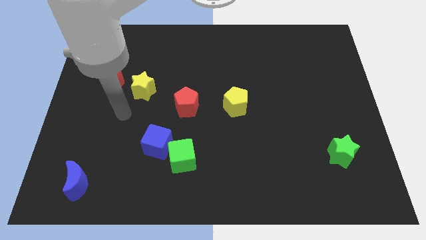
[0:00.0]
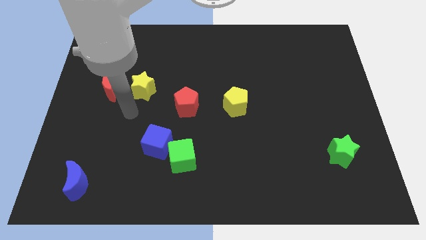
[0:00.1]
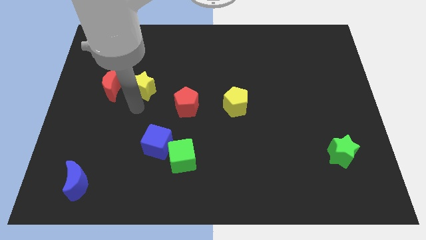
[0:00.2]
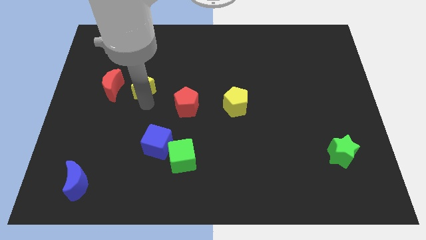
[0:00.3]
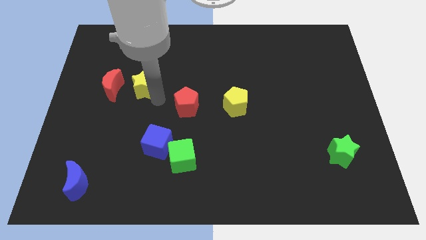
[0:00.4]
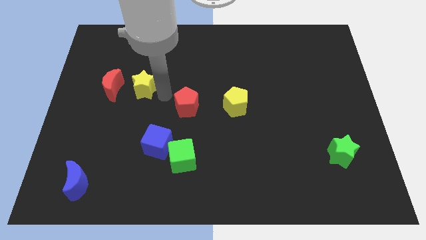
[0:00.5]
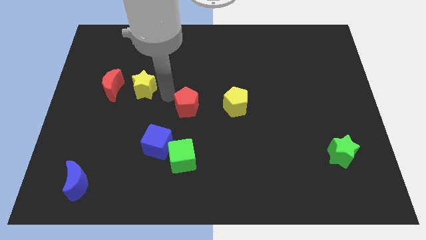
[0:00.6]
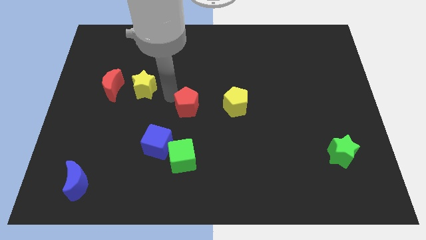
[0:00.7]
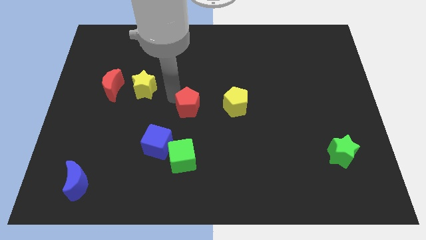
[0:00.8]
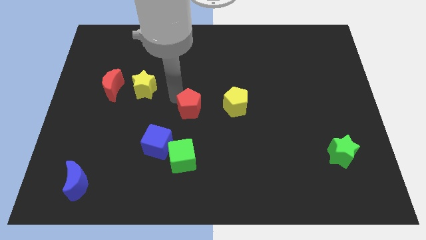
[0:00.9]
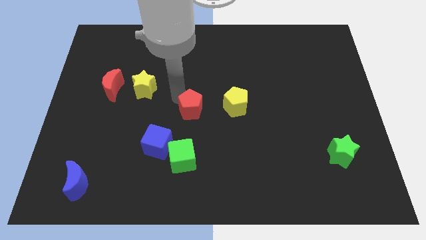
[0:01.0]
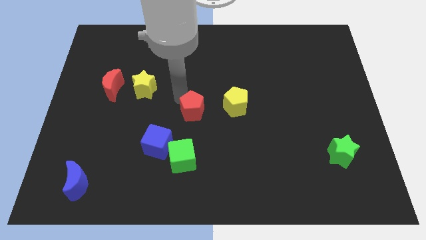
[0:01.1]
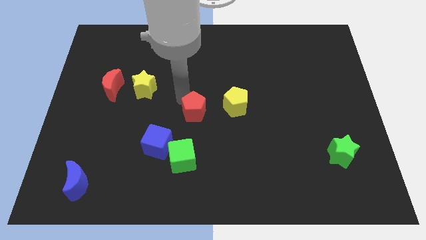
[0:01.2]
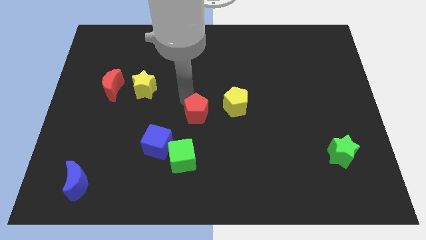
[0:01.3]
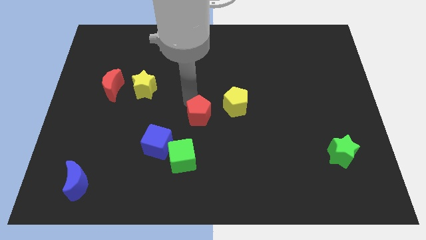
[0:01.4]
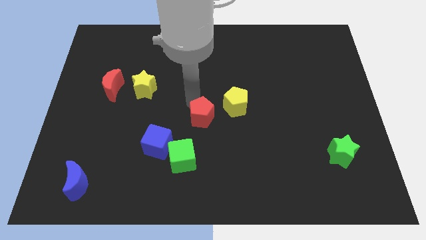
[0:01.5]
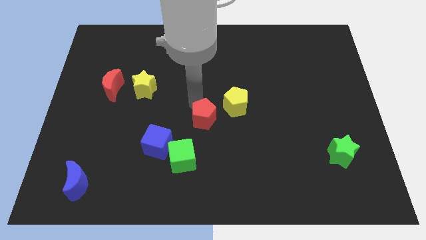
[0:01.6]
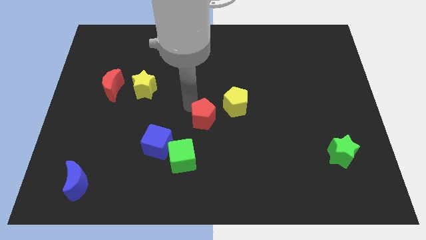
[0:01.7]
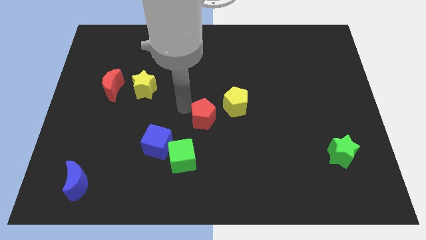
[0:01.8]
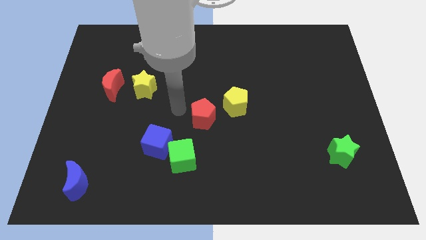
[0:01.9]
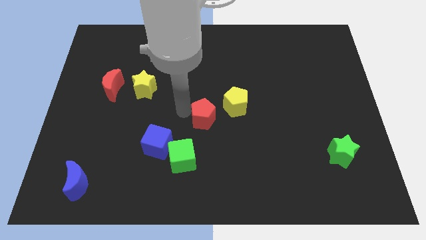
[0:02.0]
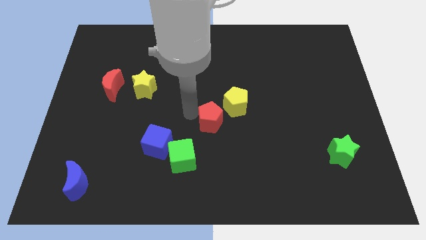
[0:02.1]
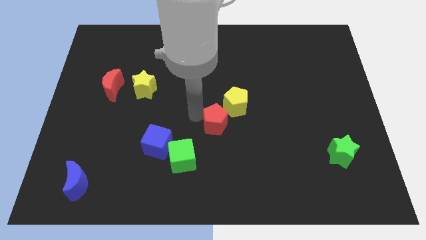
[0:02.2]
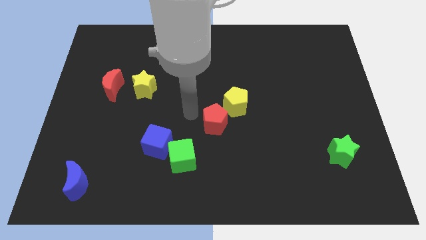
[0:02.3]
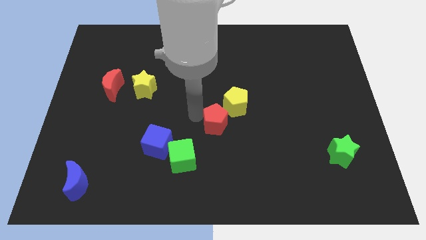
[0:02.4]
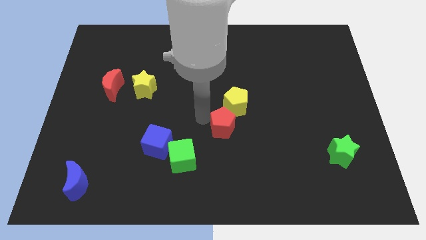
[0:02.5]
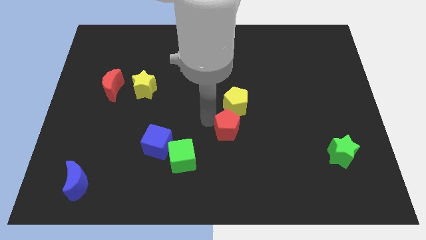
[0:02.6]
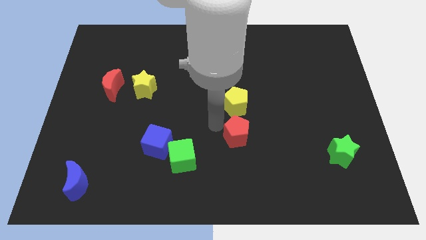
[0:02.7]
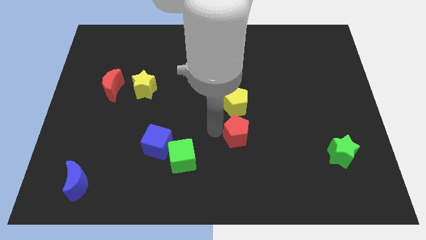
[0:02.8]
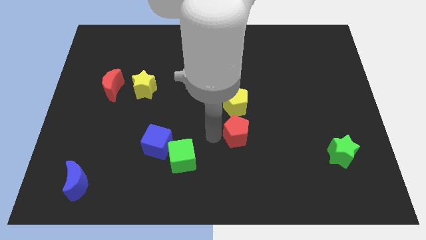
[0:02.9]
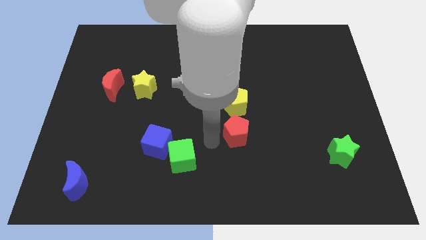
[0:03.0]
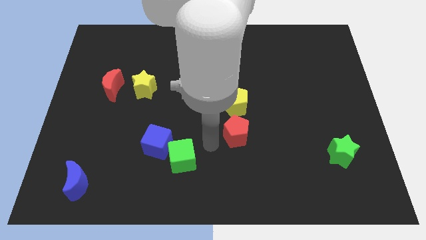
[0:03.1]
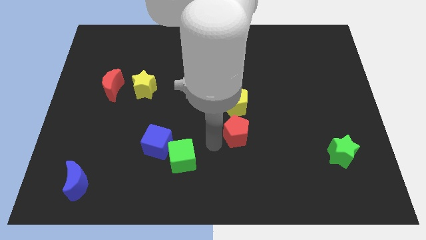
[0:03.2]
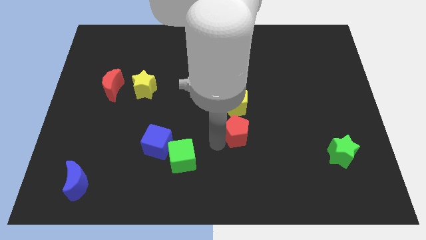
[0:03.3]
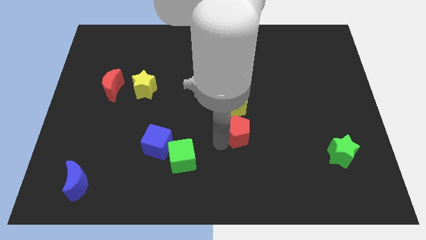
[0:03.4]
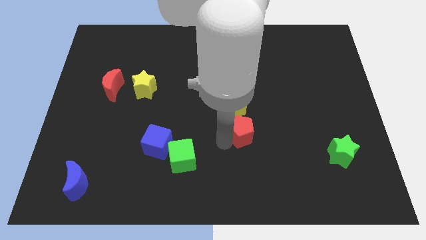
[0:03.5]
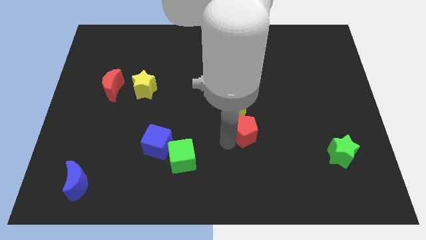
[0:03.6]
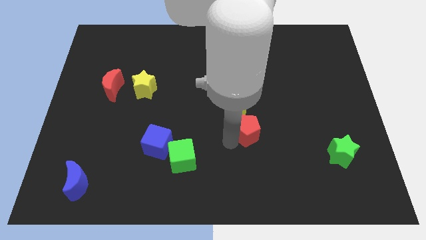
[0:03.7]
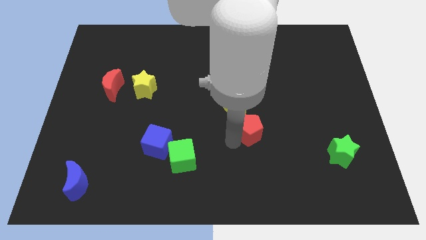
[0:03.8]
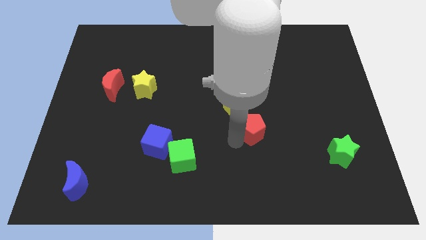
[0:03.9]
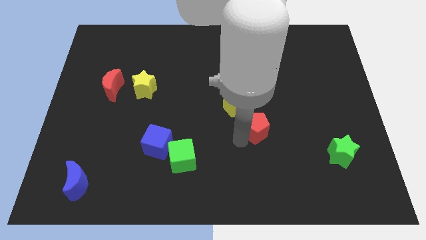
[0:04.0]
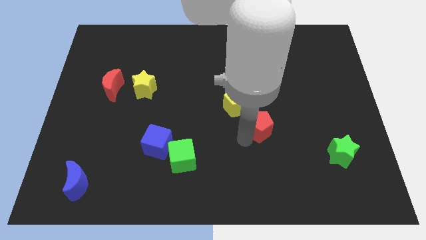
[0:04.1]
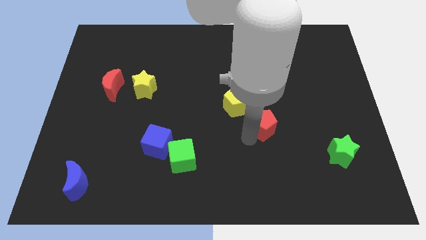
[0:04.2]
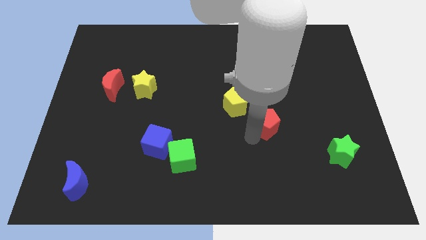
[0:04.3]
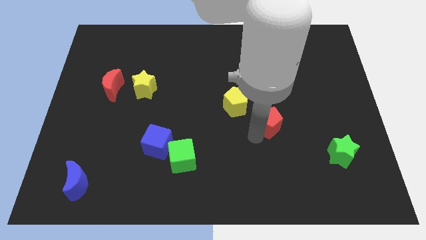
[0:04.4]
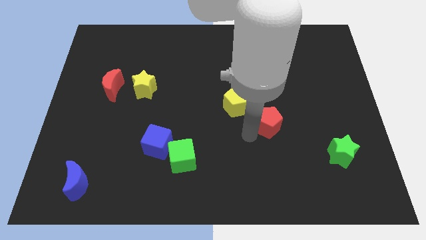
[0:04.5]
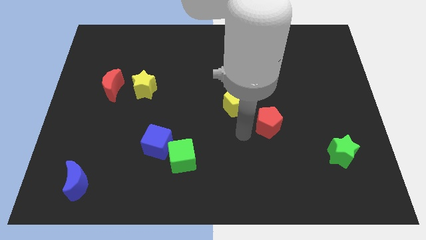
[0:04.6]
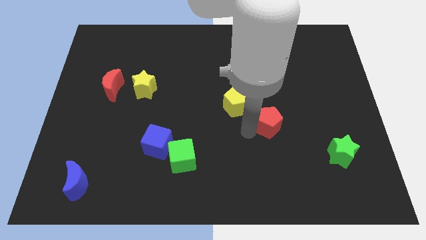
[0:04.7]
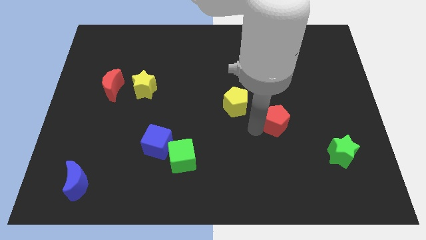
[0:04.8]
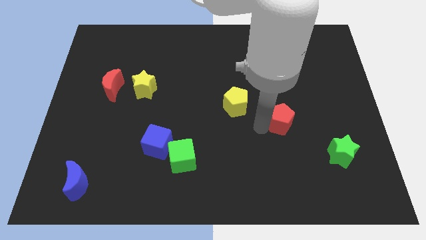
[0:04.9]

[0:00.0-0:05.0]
slide the red pentagon to the right

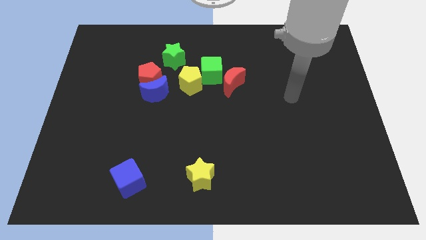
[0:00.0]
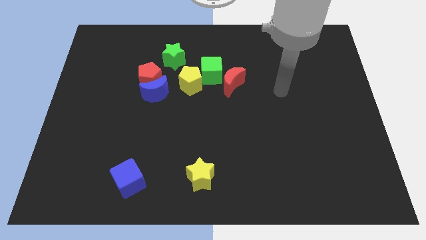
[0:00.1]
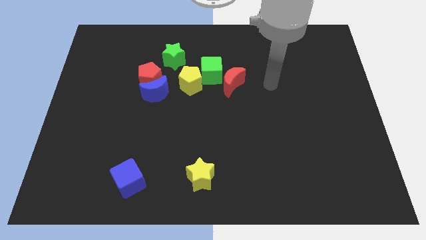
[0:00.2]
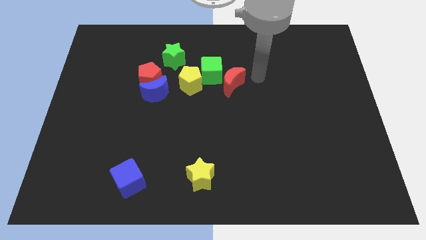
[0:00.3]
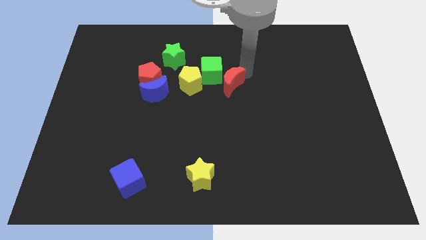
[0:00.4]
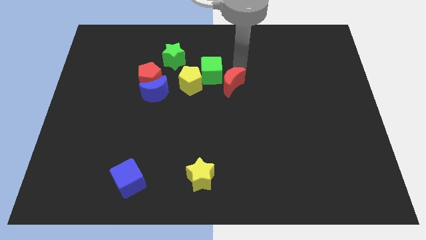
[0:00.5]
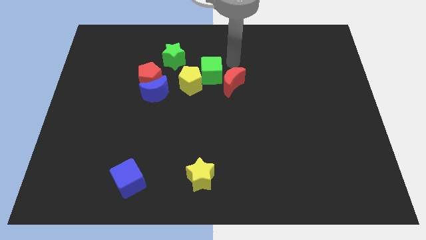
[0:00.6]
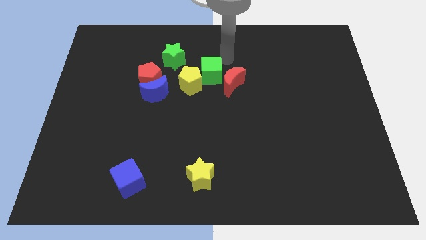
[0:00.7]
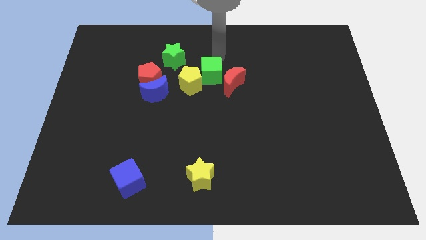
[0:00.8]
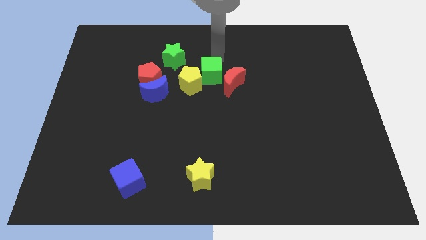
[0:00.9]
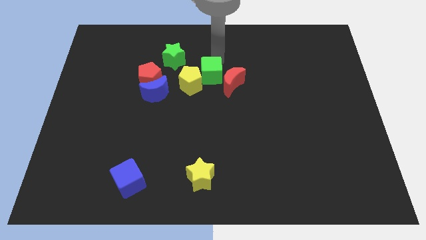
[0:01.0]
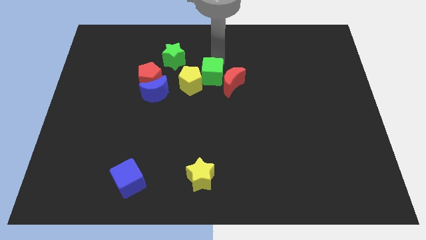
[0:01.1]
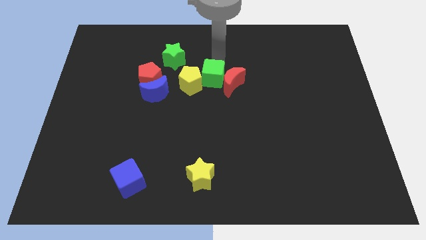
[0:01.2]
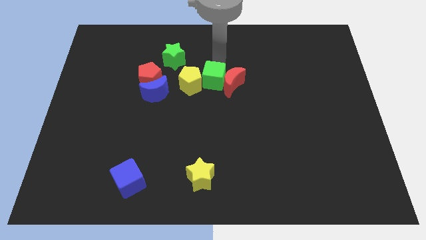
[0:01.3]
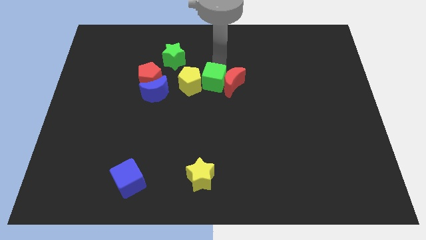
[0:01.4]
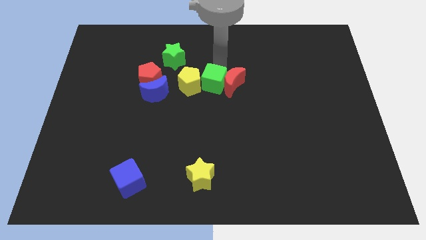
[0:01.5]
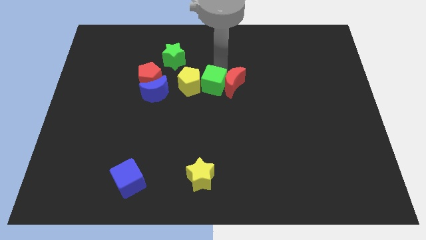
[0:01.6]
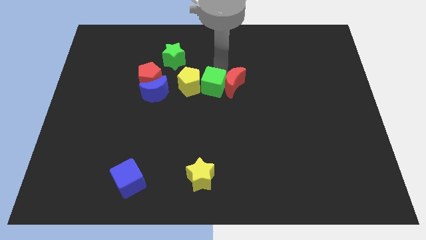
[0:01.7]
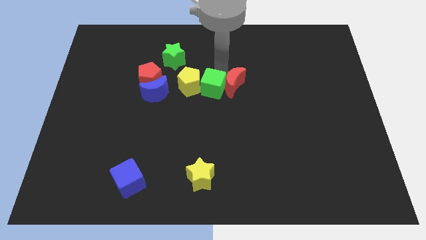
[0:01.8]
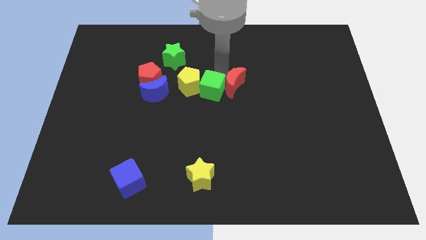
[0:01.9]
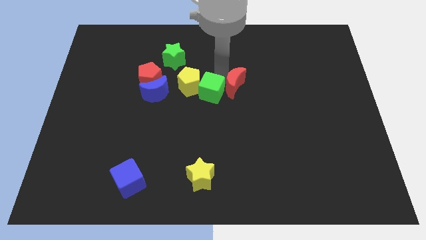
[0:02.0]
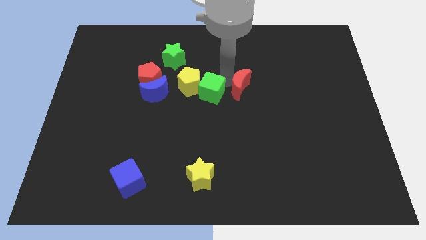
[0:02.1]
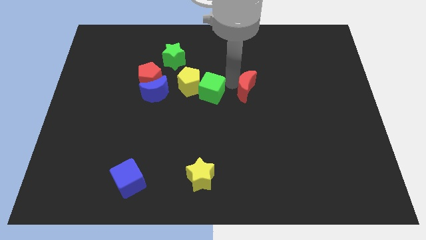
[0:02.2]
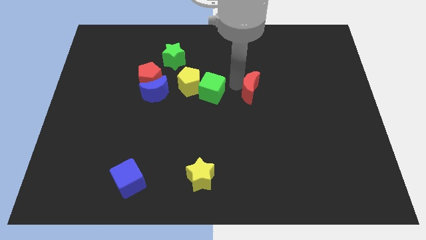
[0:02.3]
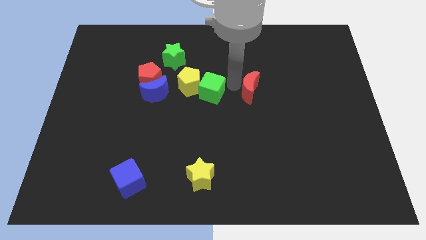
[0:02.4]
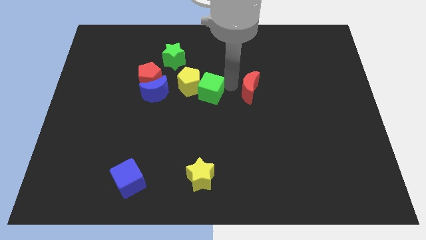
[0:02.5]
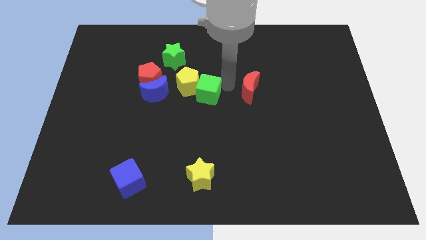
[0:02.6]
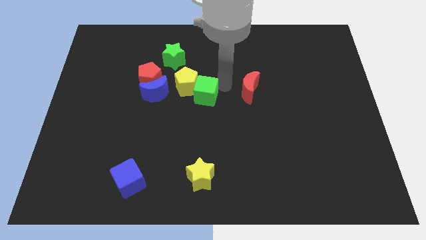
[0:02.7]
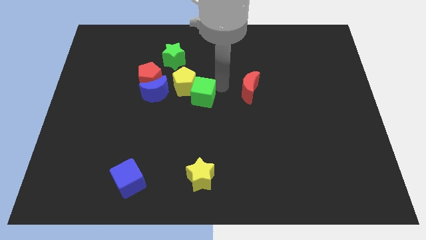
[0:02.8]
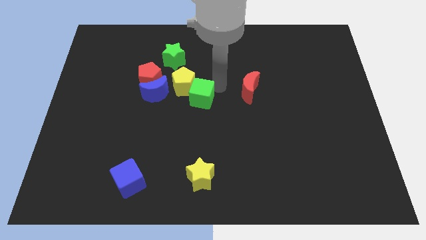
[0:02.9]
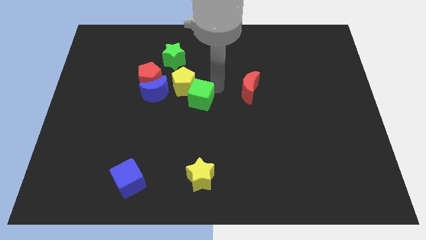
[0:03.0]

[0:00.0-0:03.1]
slide the green cube downwards and left diagonally slightly
